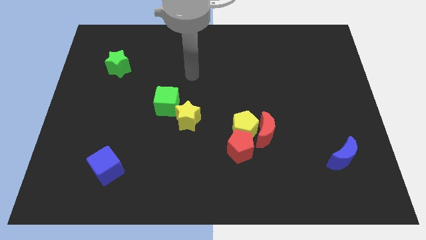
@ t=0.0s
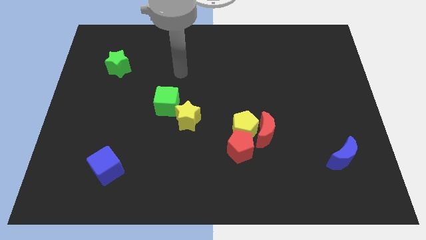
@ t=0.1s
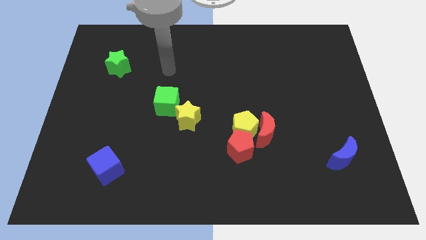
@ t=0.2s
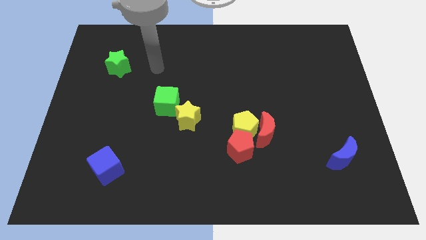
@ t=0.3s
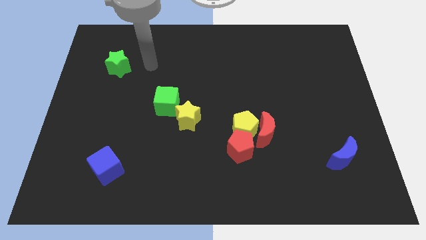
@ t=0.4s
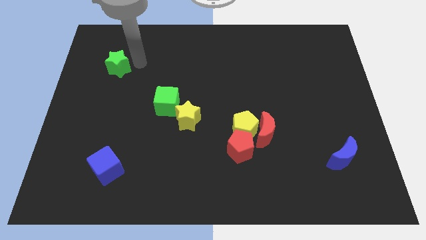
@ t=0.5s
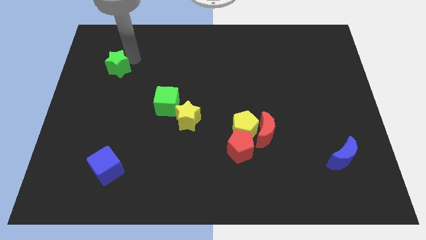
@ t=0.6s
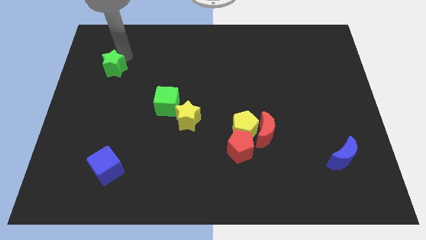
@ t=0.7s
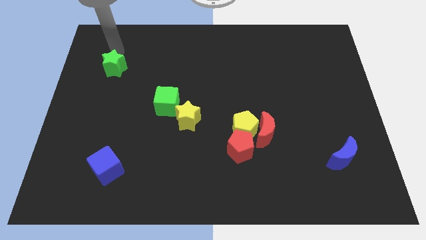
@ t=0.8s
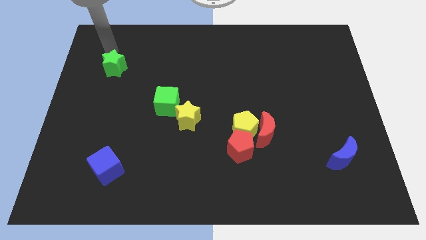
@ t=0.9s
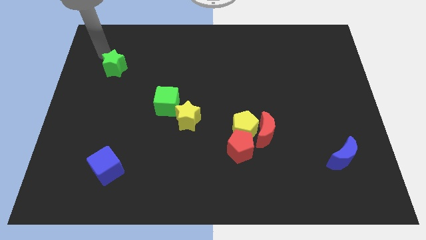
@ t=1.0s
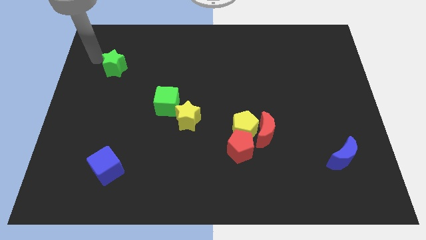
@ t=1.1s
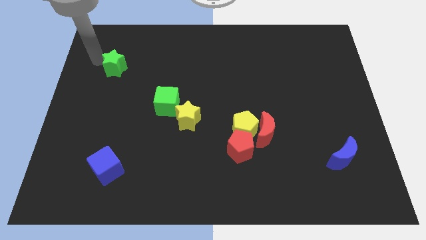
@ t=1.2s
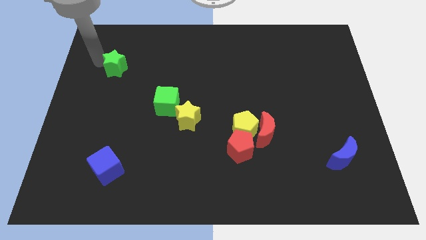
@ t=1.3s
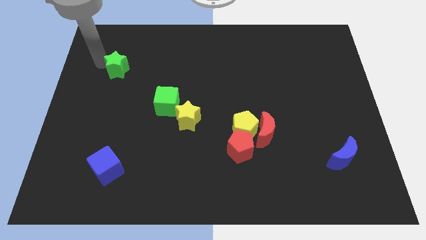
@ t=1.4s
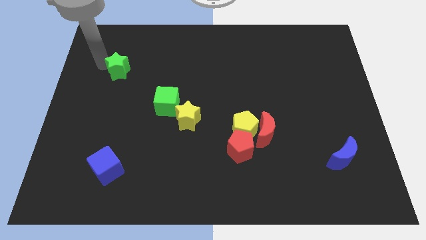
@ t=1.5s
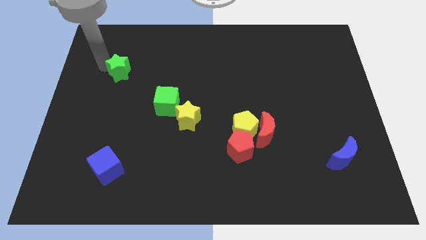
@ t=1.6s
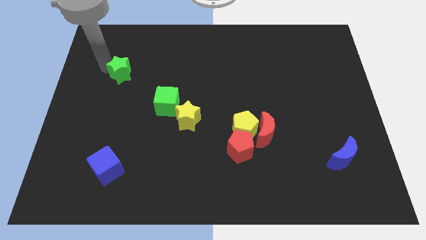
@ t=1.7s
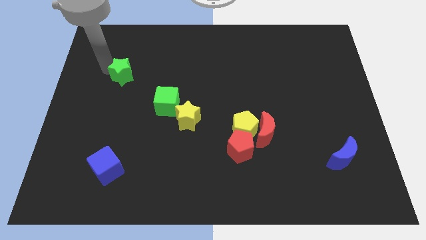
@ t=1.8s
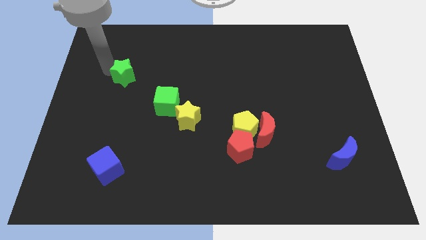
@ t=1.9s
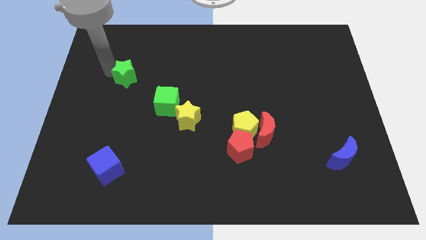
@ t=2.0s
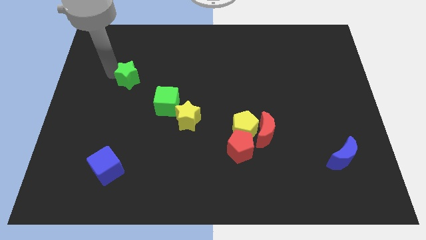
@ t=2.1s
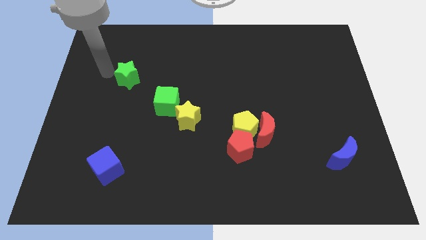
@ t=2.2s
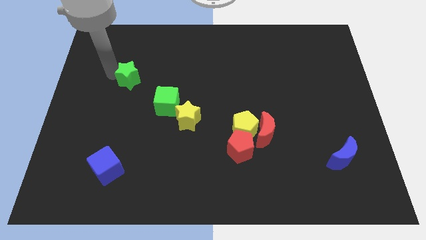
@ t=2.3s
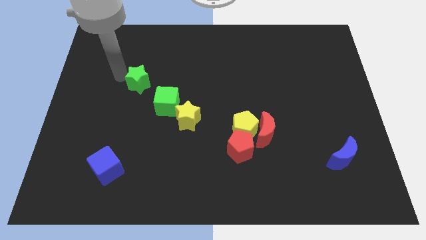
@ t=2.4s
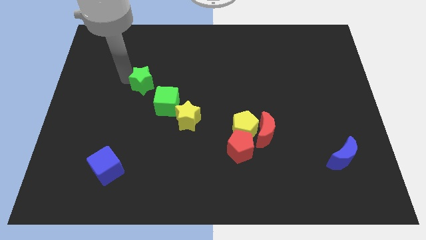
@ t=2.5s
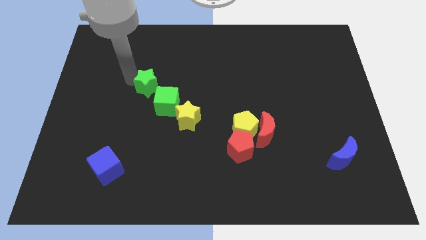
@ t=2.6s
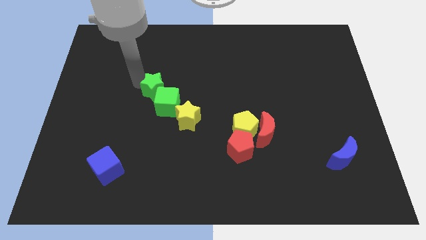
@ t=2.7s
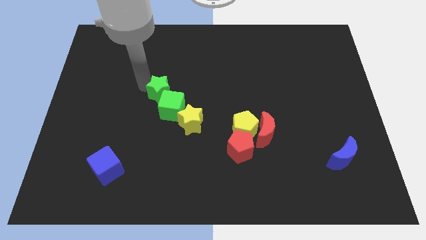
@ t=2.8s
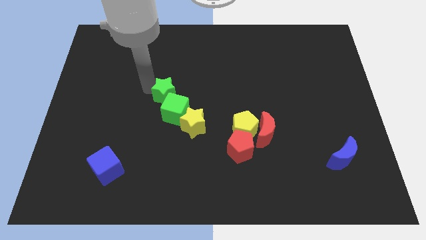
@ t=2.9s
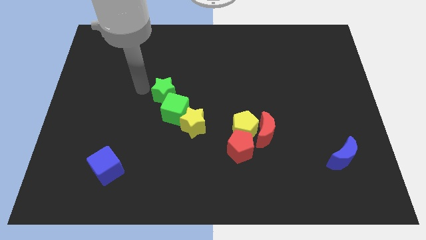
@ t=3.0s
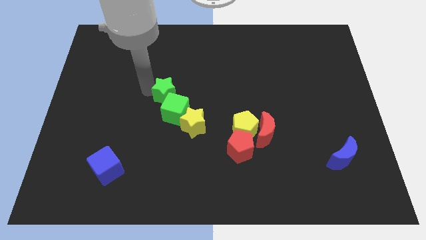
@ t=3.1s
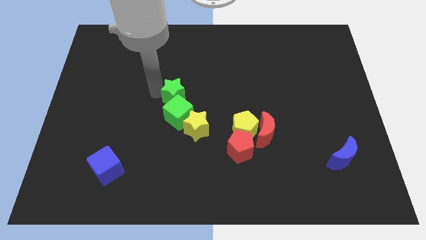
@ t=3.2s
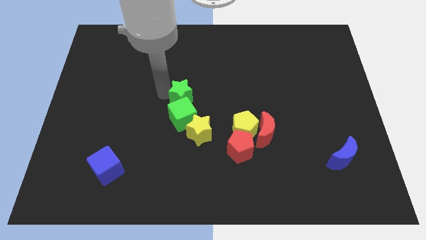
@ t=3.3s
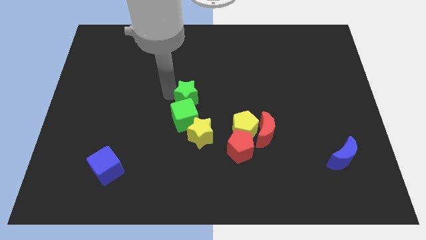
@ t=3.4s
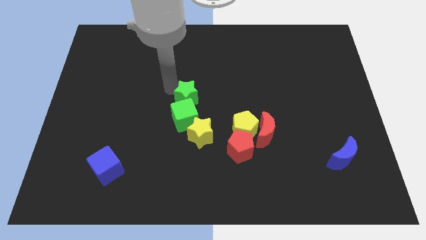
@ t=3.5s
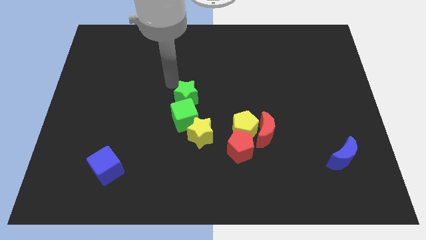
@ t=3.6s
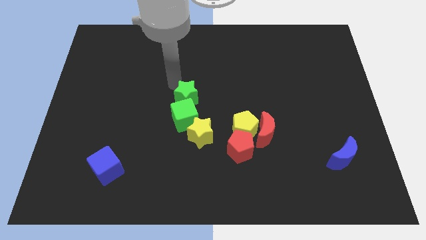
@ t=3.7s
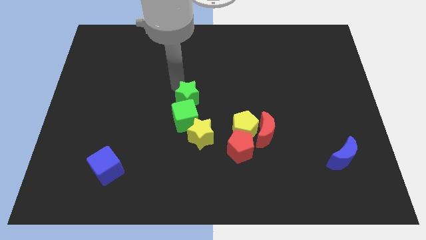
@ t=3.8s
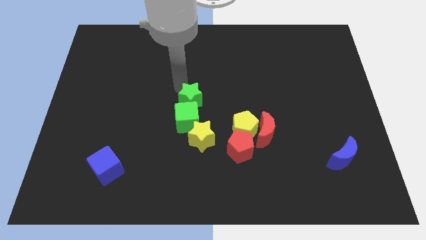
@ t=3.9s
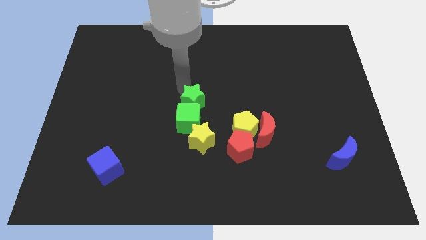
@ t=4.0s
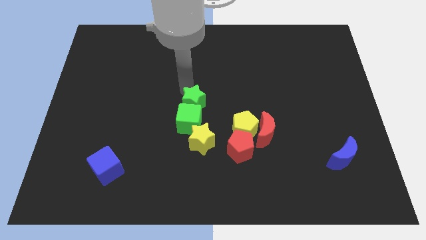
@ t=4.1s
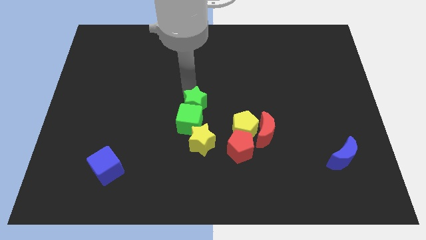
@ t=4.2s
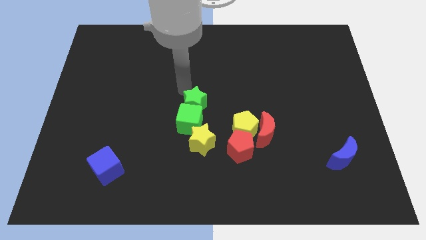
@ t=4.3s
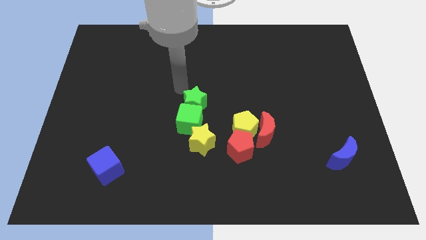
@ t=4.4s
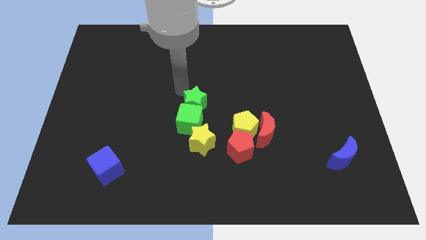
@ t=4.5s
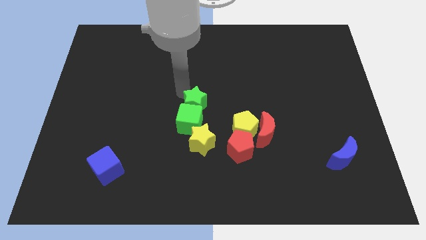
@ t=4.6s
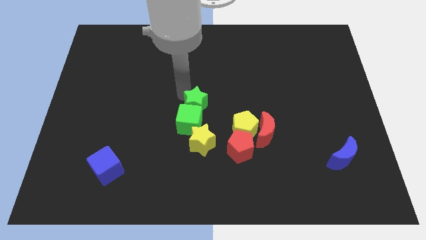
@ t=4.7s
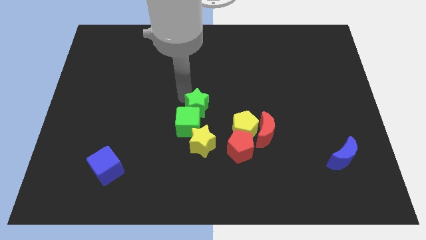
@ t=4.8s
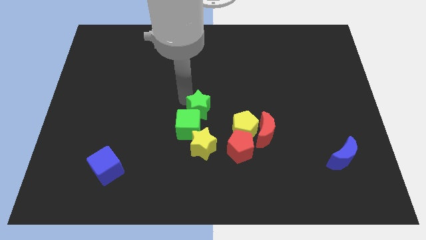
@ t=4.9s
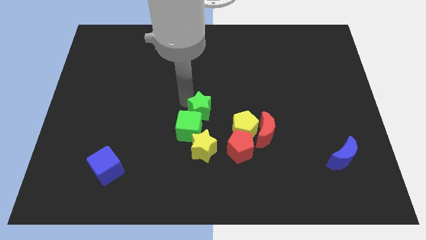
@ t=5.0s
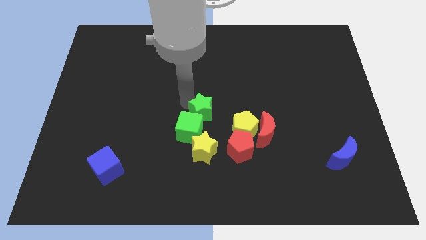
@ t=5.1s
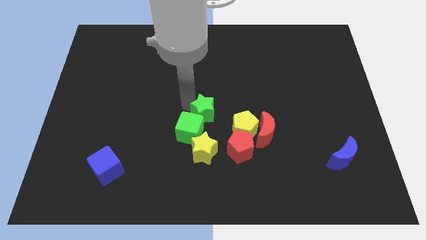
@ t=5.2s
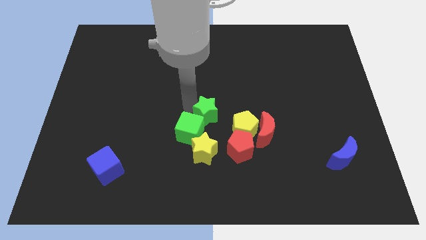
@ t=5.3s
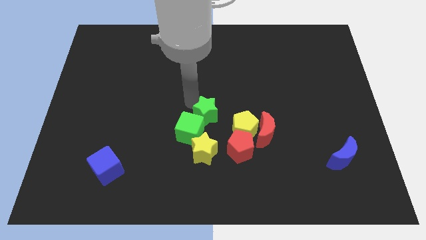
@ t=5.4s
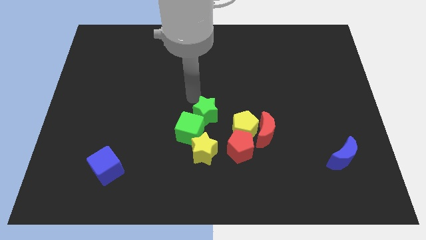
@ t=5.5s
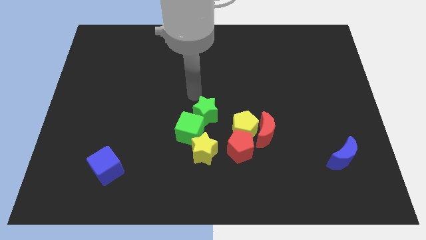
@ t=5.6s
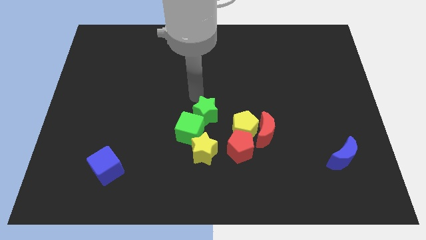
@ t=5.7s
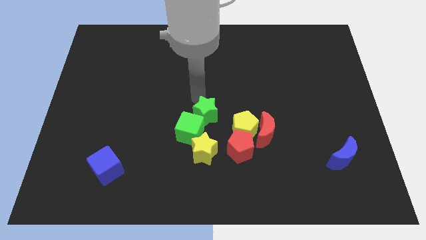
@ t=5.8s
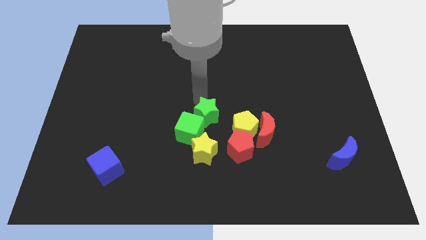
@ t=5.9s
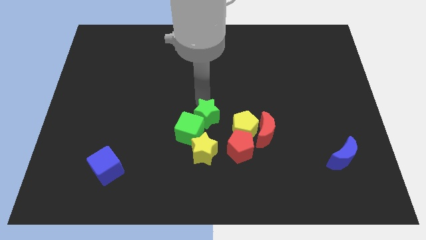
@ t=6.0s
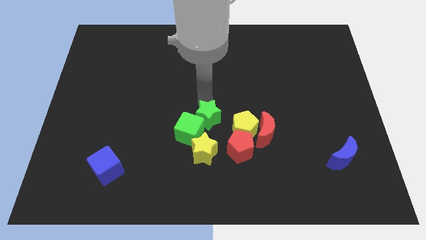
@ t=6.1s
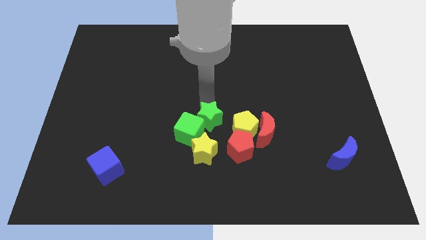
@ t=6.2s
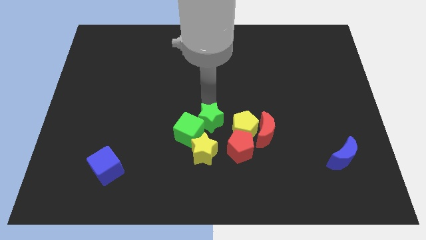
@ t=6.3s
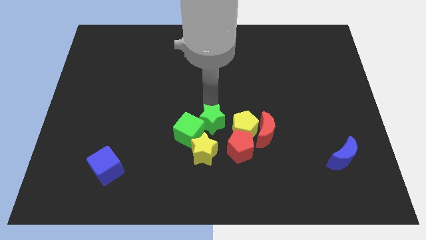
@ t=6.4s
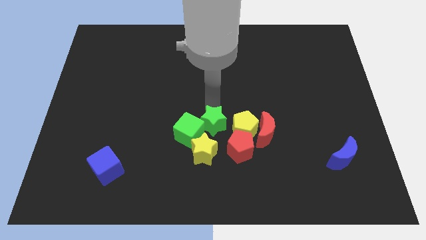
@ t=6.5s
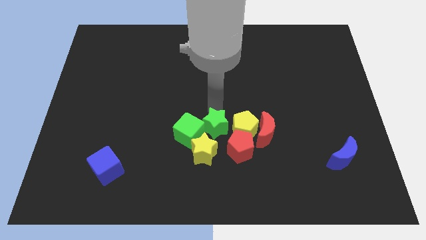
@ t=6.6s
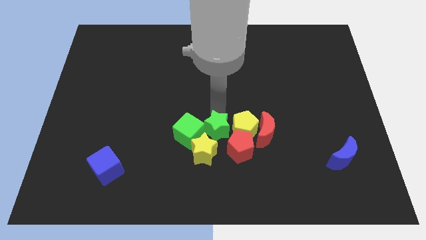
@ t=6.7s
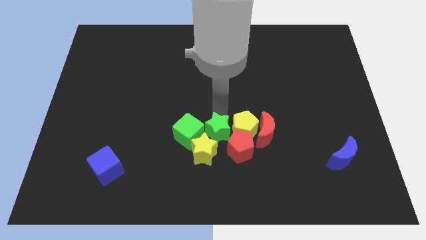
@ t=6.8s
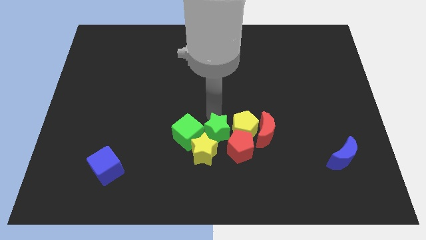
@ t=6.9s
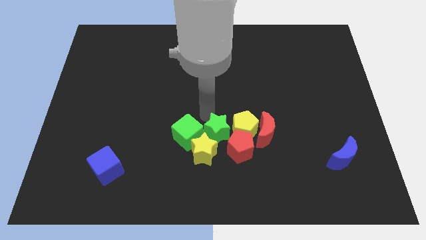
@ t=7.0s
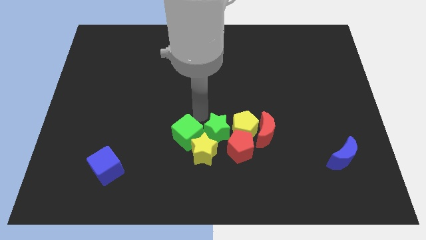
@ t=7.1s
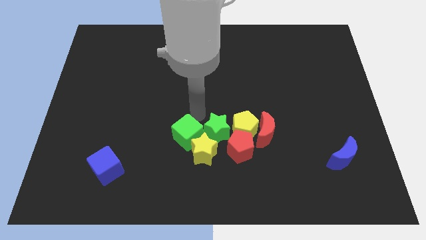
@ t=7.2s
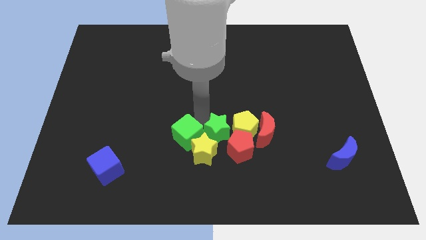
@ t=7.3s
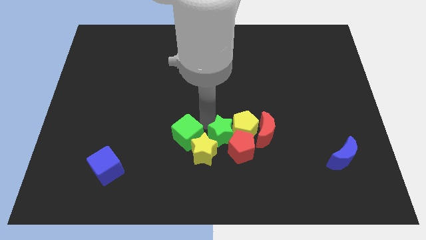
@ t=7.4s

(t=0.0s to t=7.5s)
push the green star towards the red pentagon
